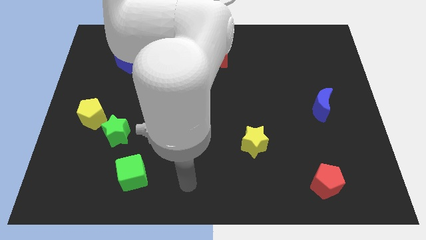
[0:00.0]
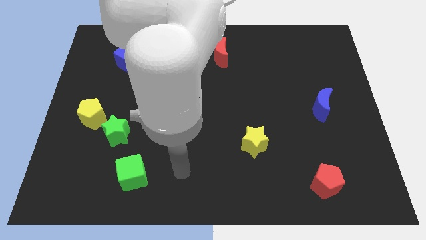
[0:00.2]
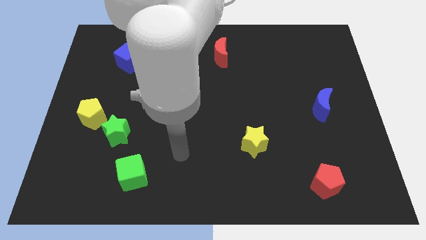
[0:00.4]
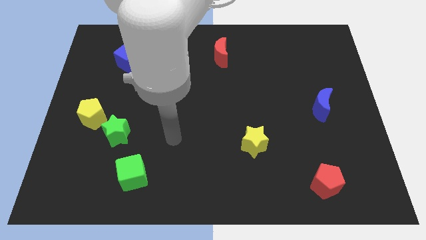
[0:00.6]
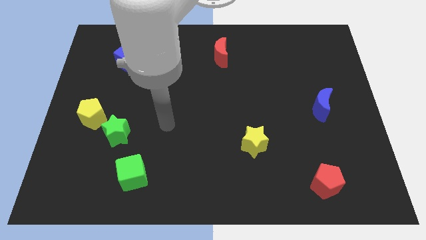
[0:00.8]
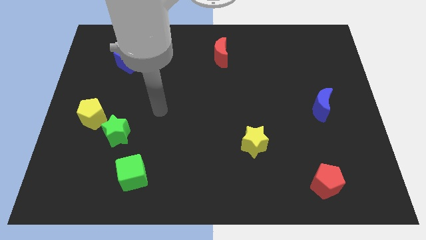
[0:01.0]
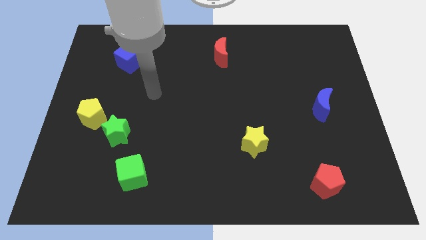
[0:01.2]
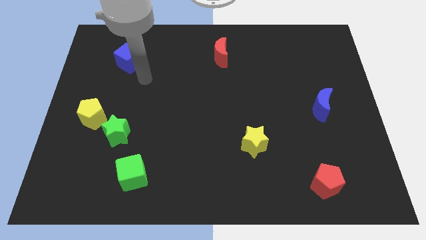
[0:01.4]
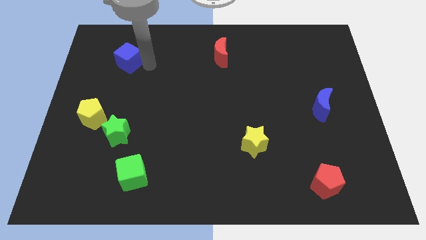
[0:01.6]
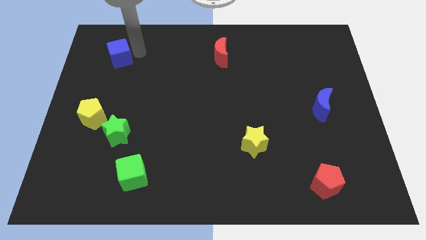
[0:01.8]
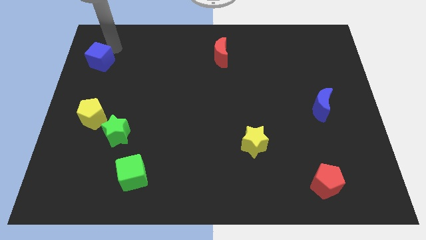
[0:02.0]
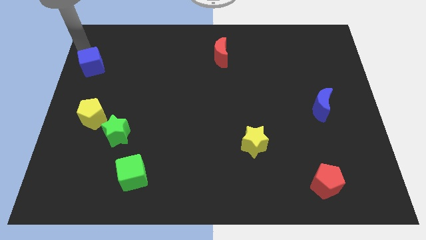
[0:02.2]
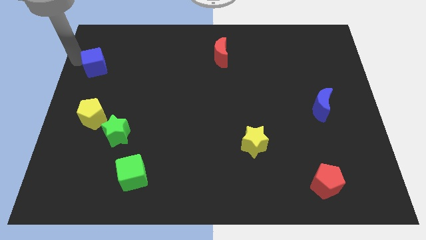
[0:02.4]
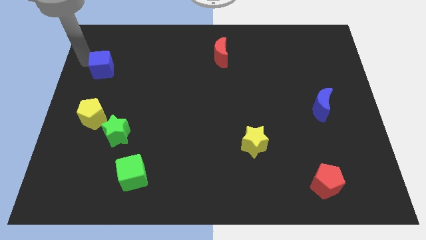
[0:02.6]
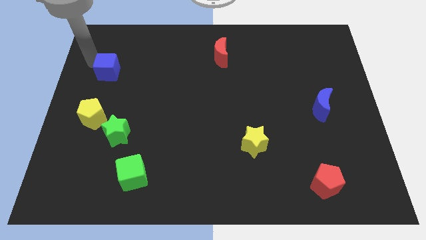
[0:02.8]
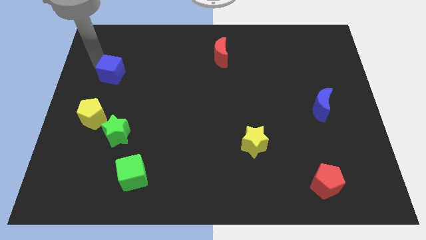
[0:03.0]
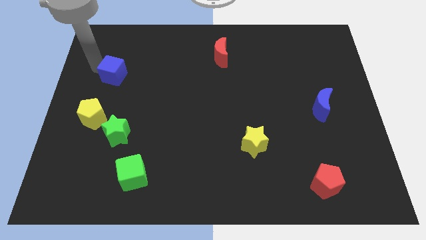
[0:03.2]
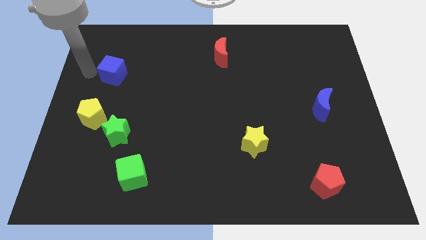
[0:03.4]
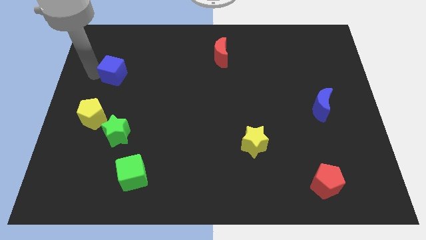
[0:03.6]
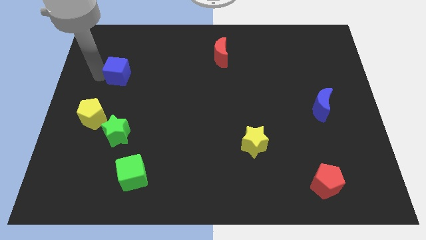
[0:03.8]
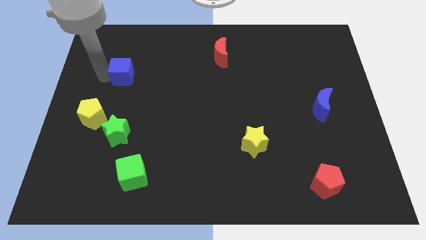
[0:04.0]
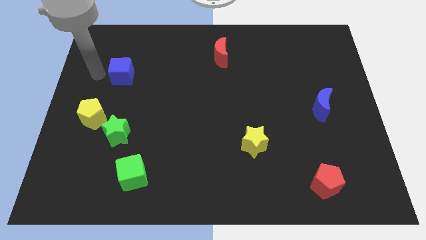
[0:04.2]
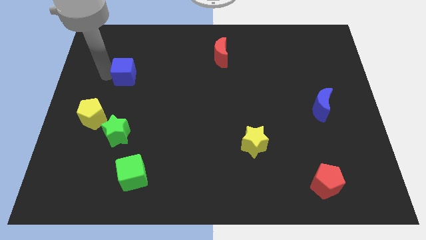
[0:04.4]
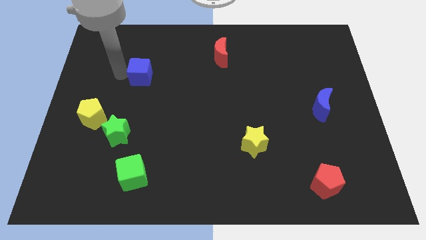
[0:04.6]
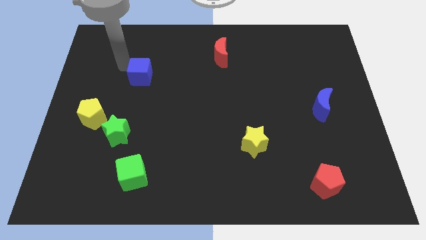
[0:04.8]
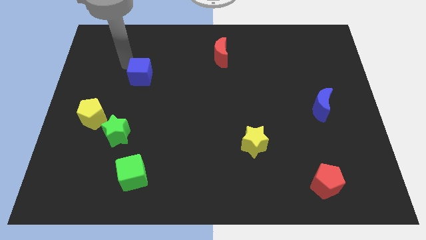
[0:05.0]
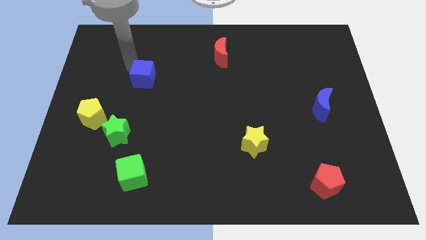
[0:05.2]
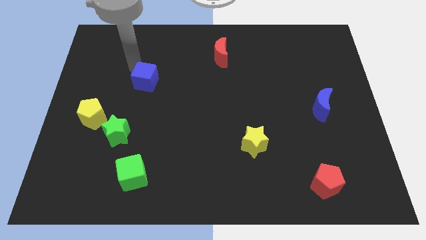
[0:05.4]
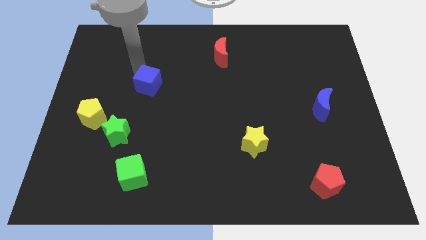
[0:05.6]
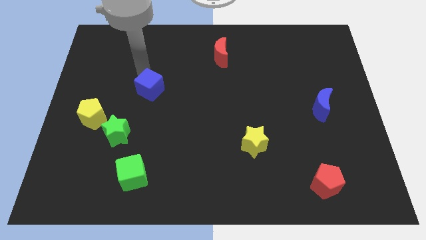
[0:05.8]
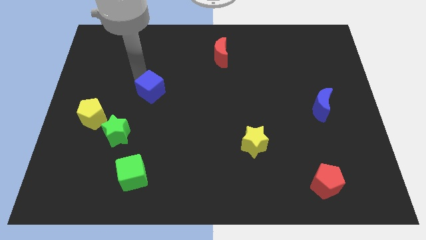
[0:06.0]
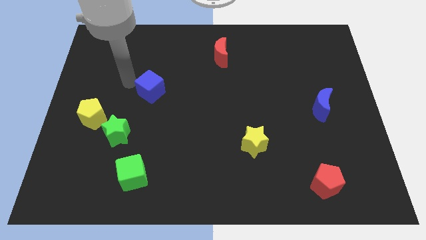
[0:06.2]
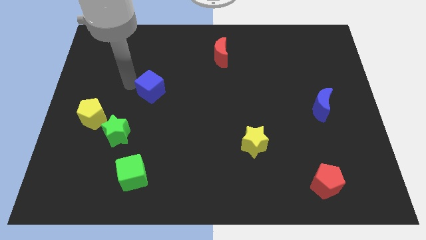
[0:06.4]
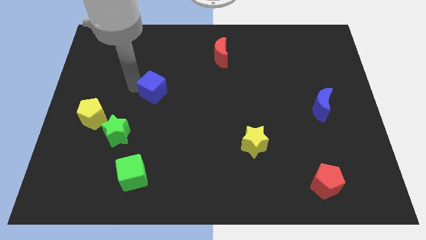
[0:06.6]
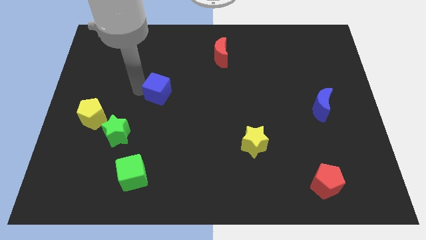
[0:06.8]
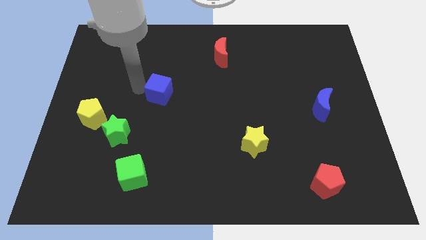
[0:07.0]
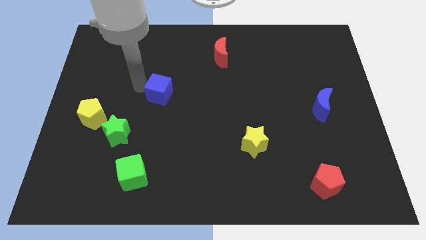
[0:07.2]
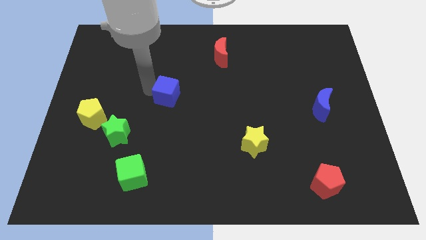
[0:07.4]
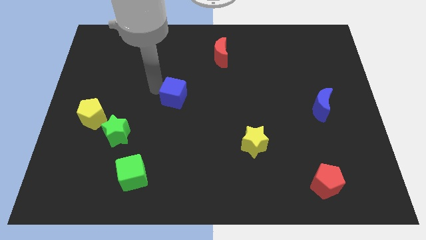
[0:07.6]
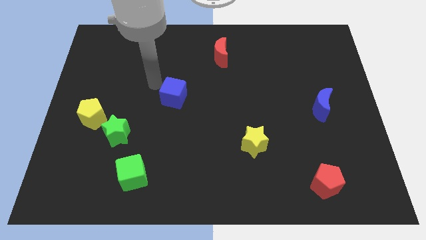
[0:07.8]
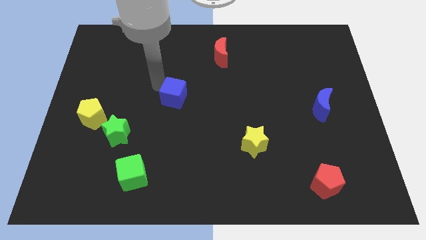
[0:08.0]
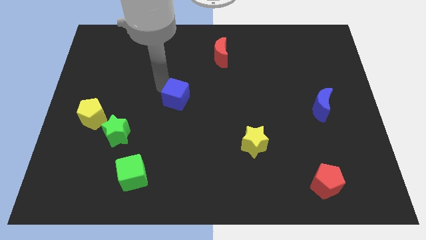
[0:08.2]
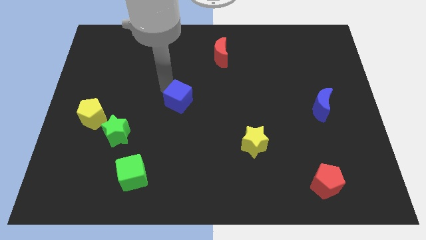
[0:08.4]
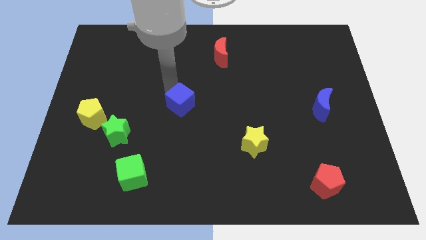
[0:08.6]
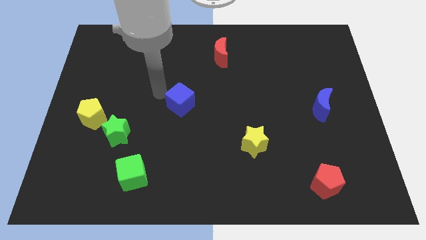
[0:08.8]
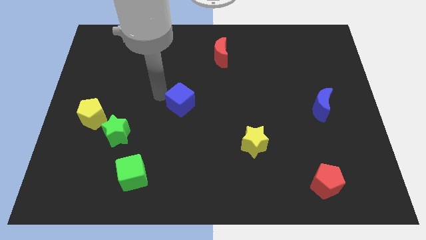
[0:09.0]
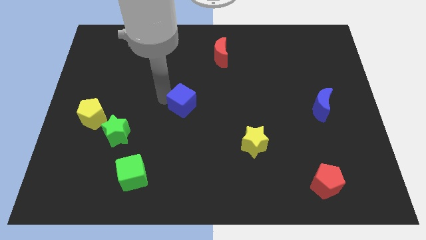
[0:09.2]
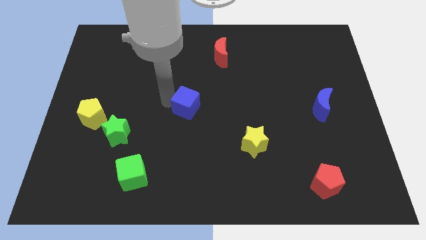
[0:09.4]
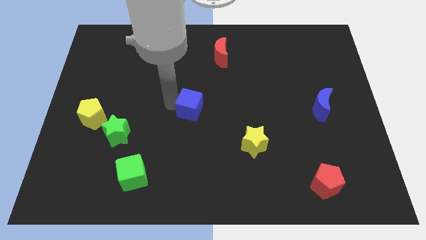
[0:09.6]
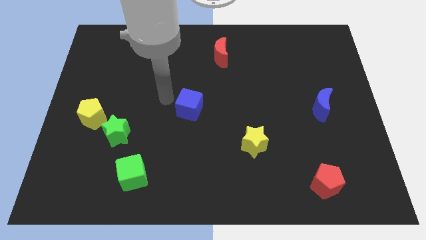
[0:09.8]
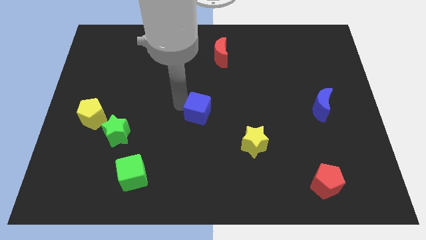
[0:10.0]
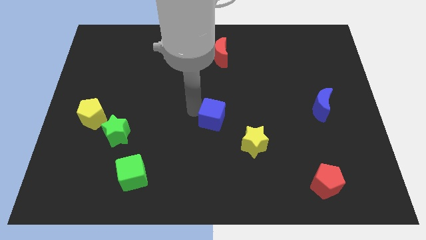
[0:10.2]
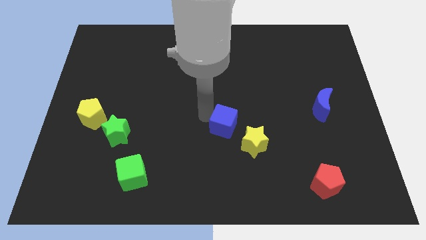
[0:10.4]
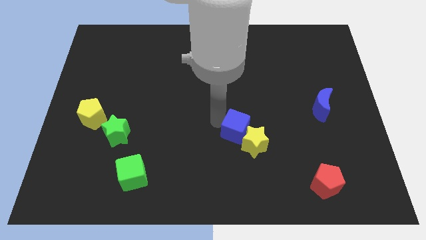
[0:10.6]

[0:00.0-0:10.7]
slide the blue cube to the yellow star

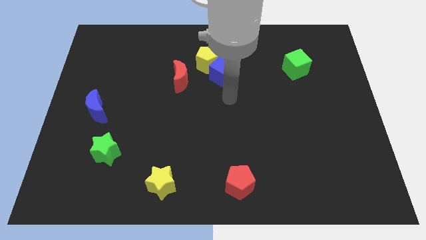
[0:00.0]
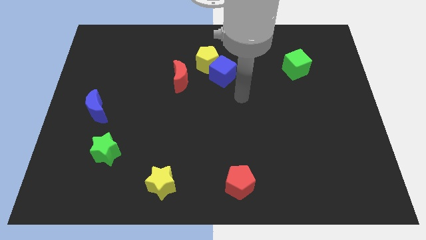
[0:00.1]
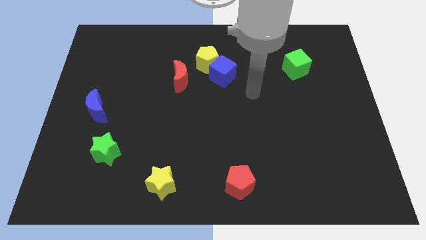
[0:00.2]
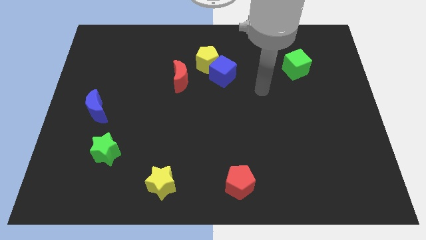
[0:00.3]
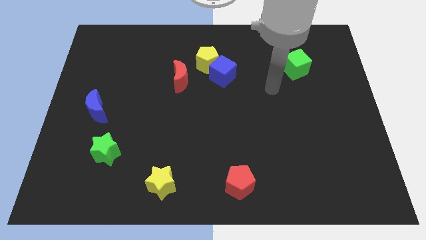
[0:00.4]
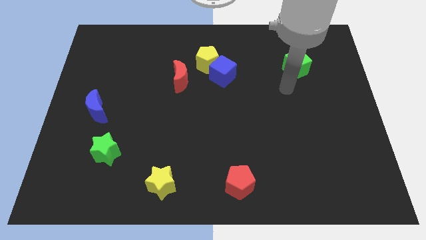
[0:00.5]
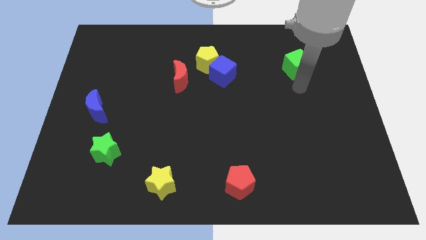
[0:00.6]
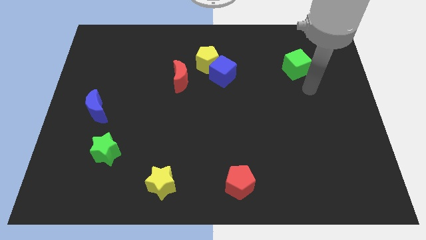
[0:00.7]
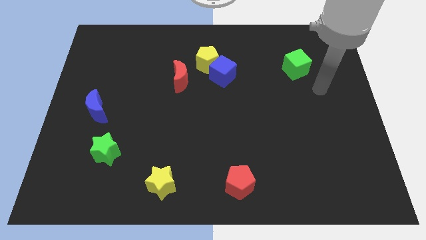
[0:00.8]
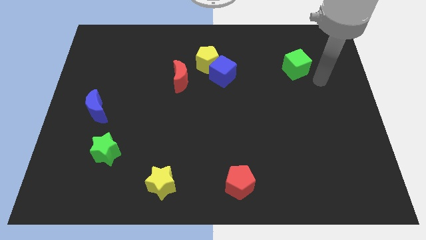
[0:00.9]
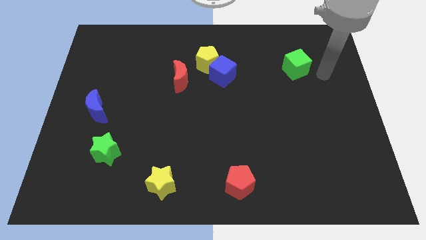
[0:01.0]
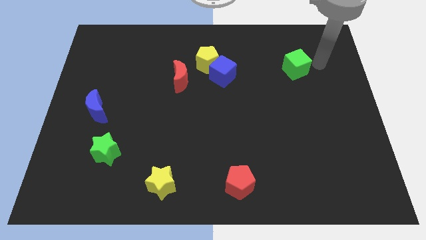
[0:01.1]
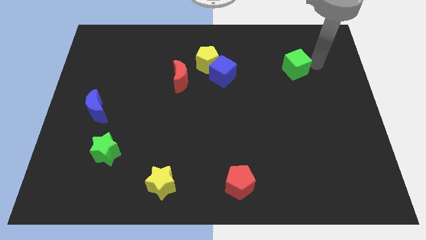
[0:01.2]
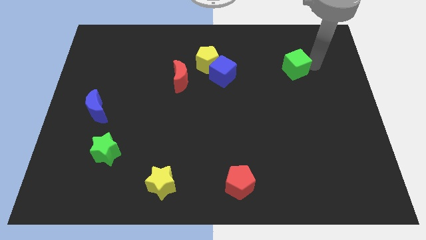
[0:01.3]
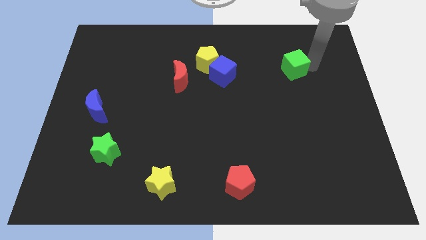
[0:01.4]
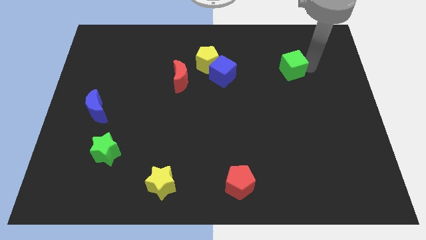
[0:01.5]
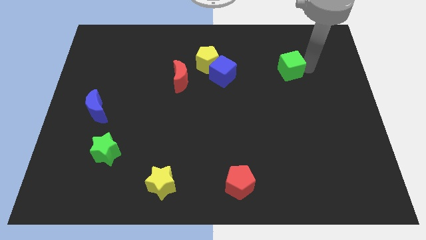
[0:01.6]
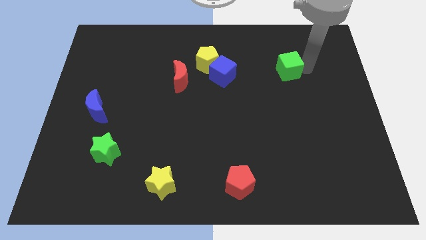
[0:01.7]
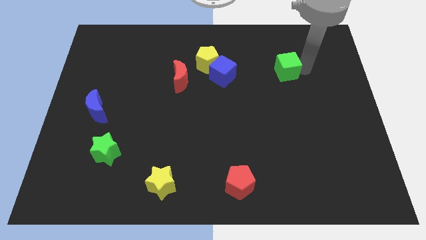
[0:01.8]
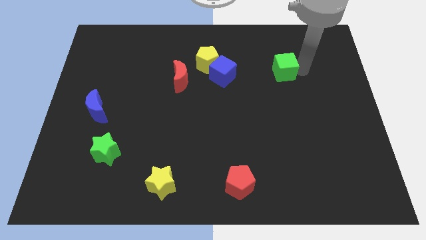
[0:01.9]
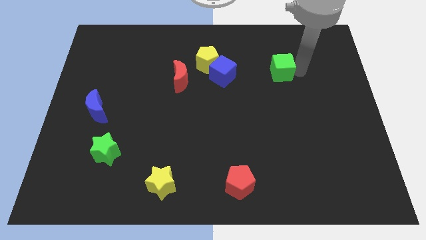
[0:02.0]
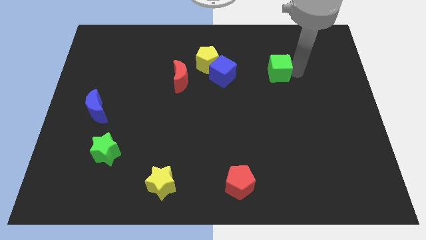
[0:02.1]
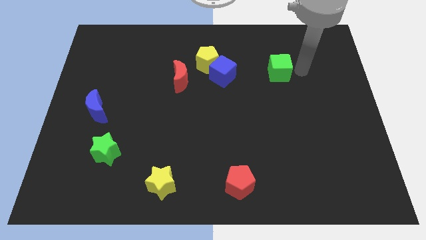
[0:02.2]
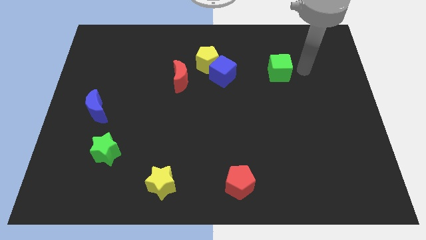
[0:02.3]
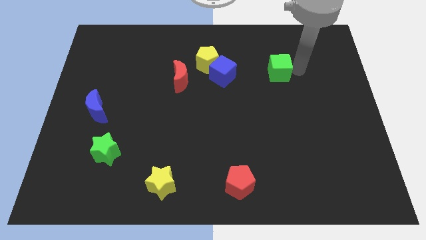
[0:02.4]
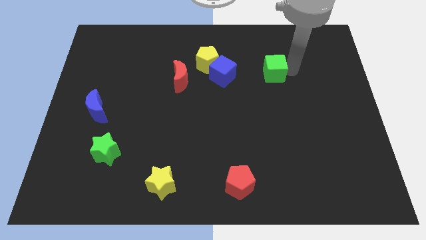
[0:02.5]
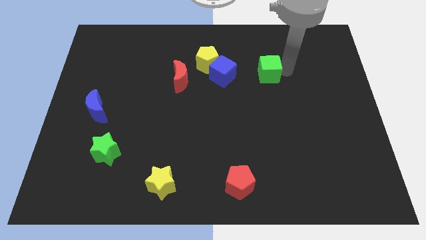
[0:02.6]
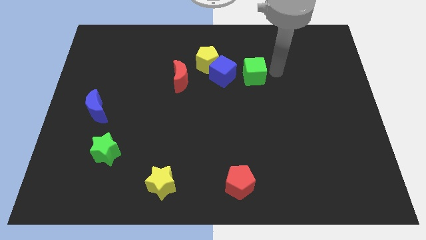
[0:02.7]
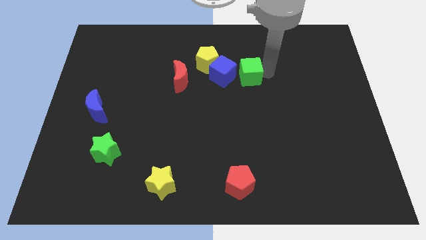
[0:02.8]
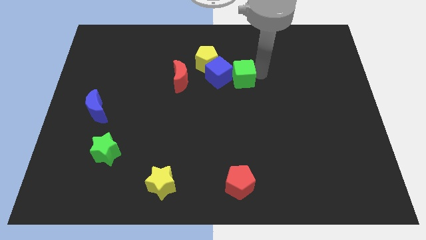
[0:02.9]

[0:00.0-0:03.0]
put the green cube next to the blue cube
